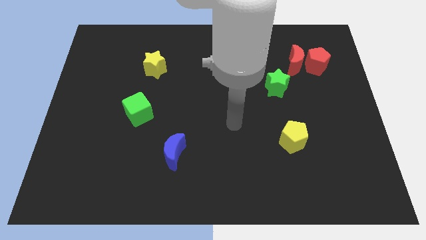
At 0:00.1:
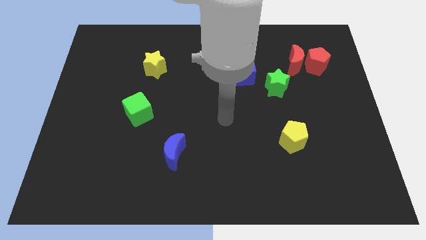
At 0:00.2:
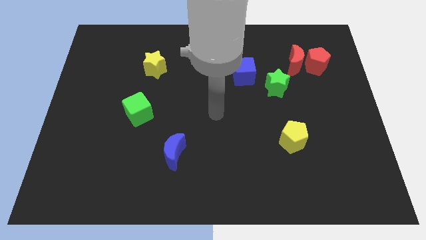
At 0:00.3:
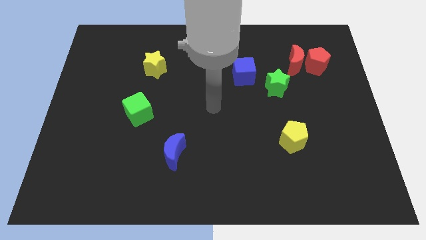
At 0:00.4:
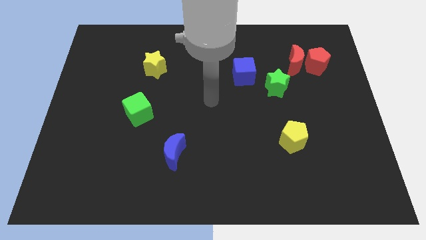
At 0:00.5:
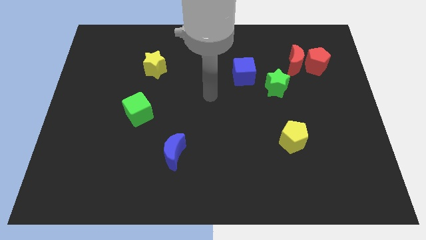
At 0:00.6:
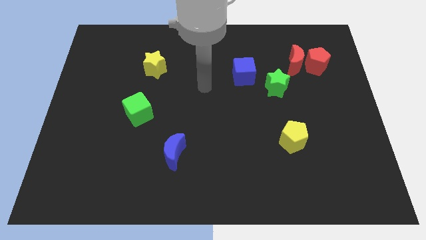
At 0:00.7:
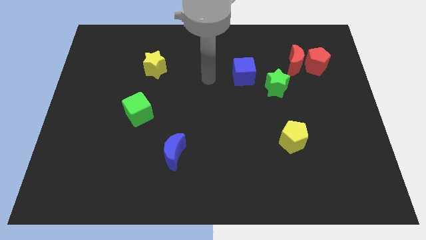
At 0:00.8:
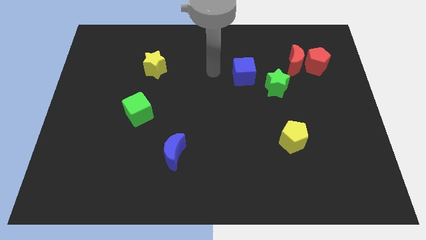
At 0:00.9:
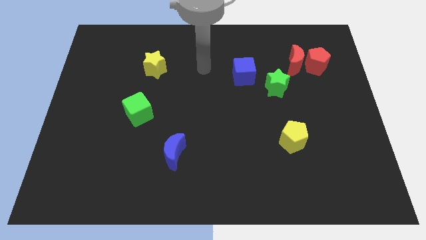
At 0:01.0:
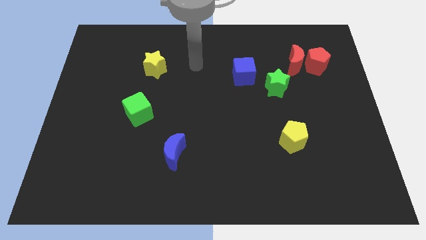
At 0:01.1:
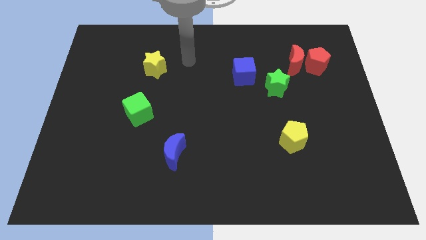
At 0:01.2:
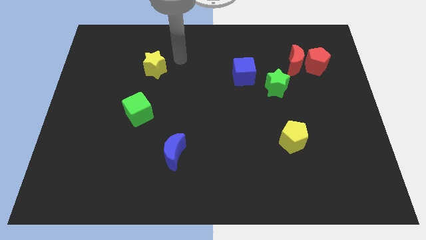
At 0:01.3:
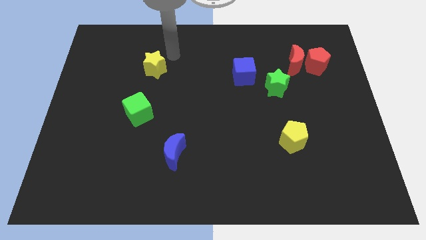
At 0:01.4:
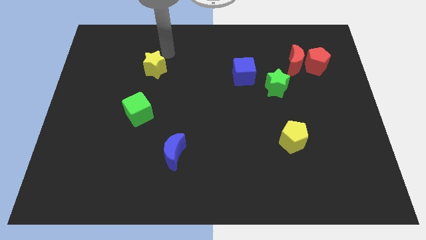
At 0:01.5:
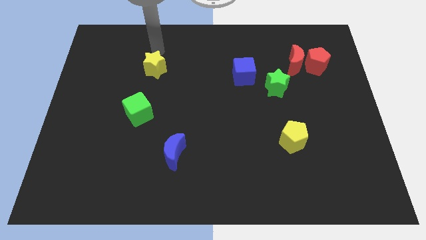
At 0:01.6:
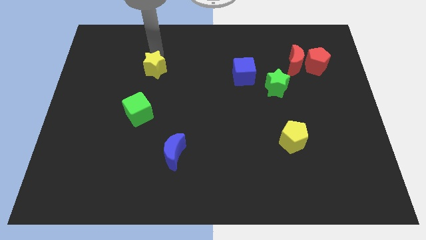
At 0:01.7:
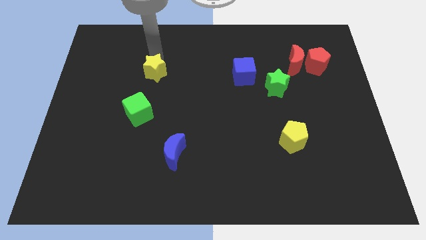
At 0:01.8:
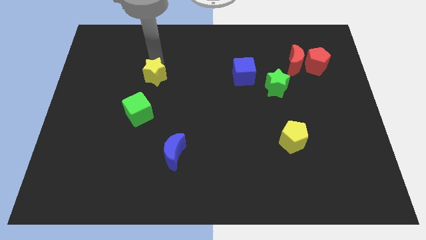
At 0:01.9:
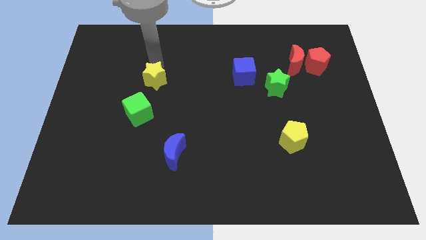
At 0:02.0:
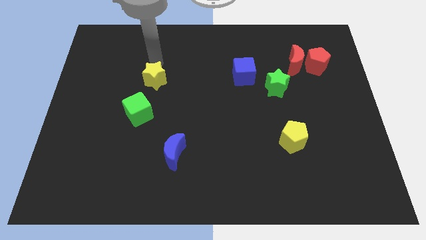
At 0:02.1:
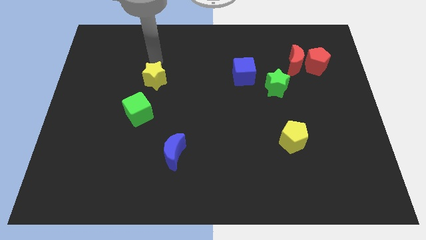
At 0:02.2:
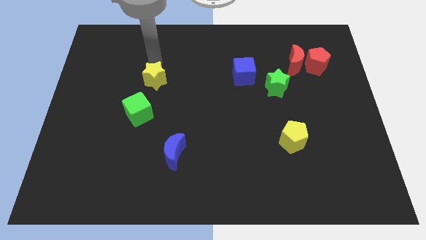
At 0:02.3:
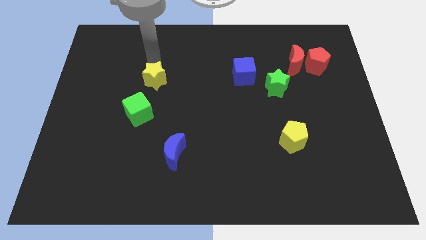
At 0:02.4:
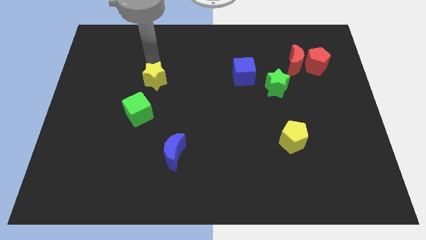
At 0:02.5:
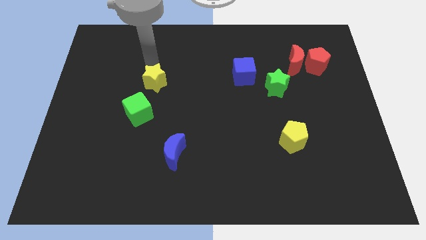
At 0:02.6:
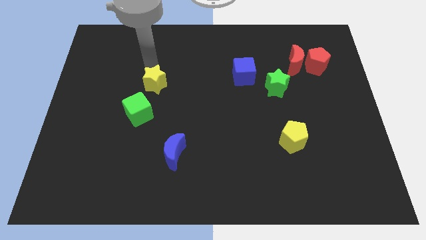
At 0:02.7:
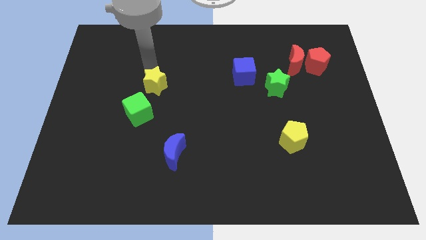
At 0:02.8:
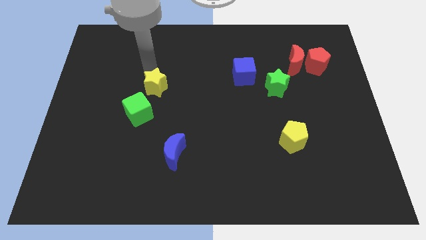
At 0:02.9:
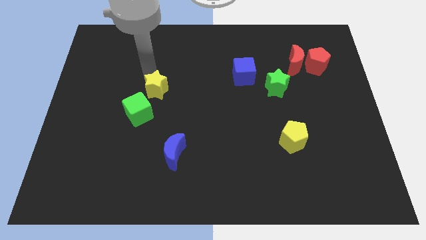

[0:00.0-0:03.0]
slide the yellow star downwards somewhat

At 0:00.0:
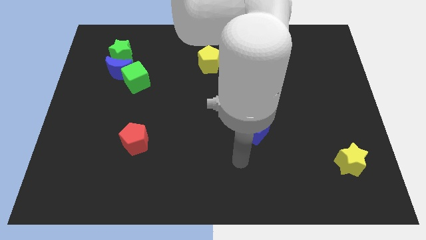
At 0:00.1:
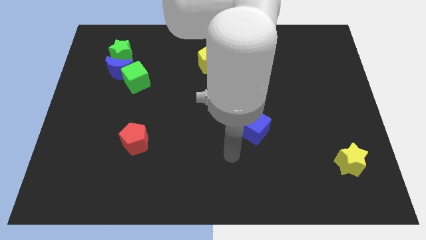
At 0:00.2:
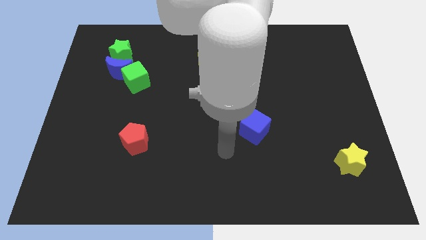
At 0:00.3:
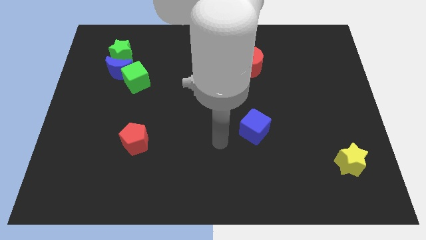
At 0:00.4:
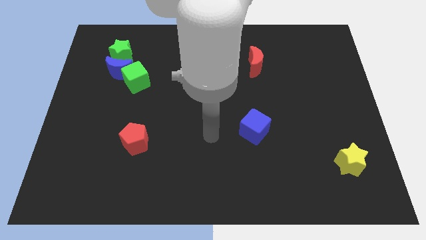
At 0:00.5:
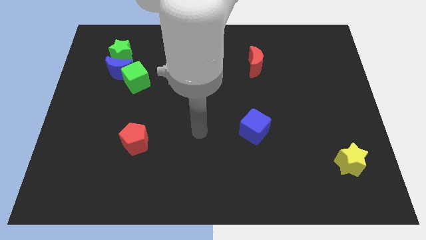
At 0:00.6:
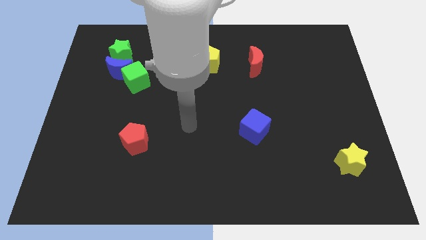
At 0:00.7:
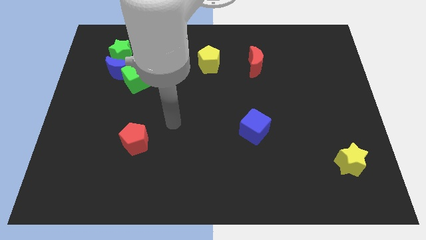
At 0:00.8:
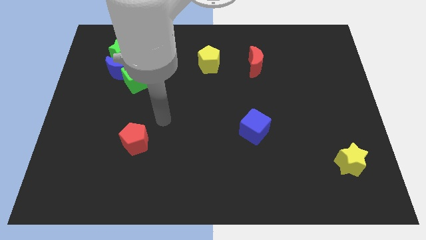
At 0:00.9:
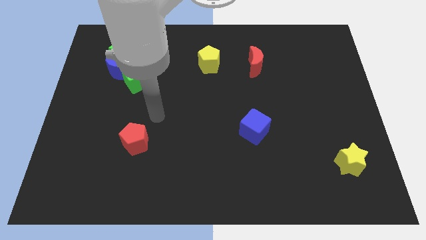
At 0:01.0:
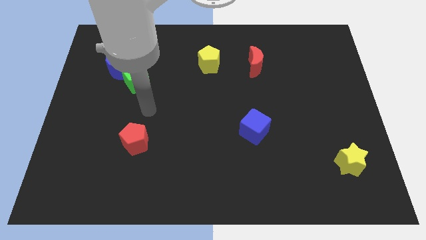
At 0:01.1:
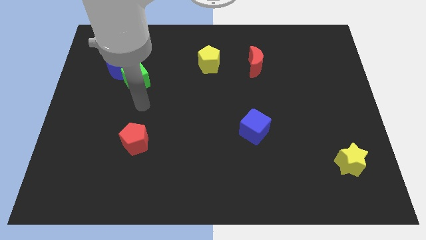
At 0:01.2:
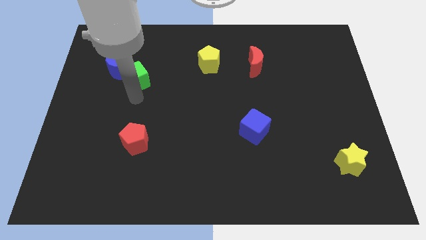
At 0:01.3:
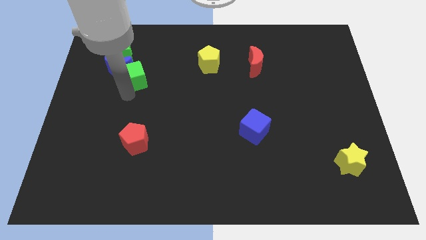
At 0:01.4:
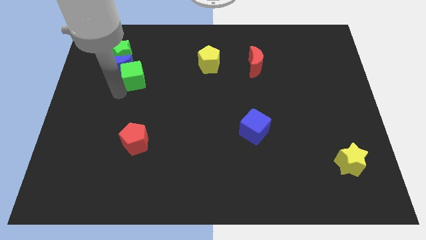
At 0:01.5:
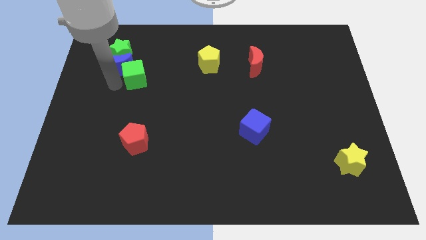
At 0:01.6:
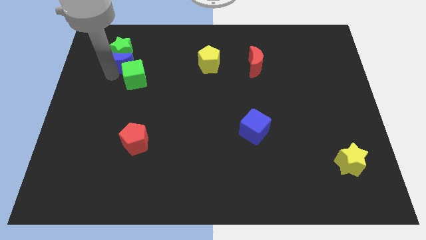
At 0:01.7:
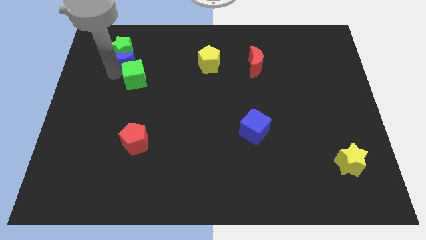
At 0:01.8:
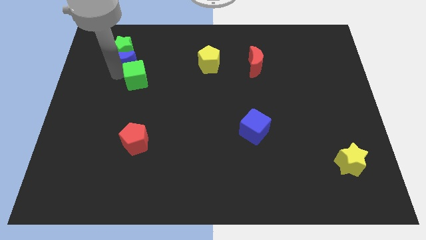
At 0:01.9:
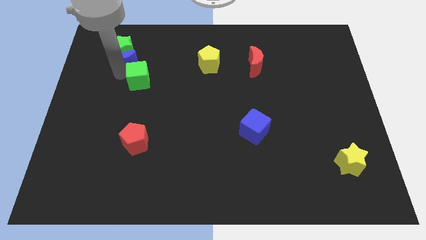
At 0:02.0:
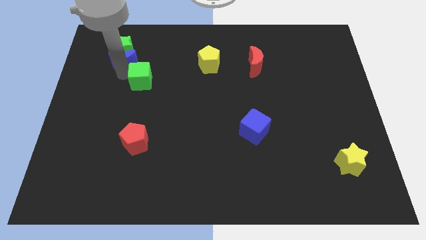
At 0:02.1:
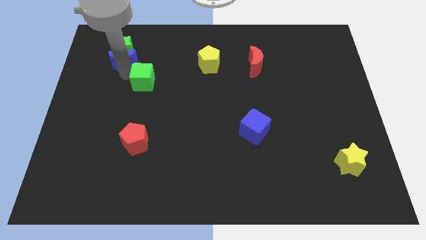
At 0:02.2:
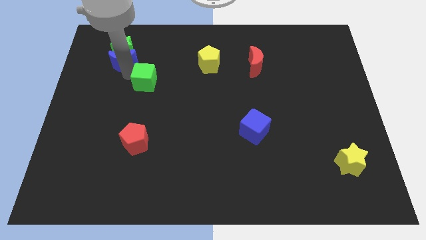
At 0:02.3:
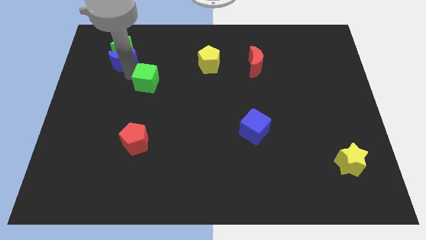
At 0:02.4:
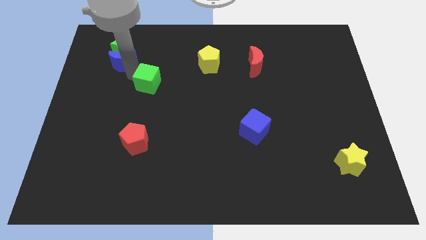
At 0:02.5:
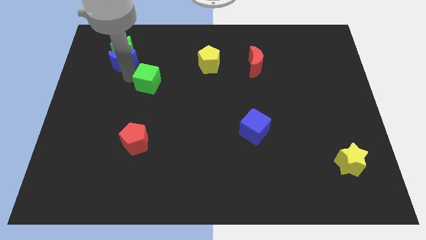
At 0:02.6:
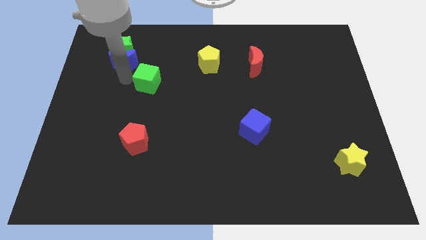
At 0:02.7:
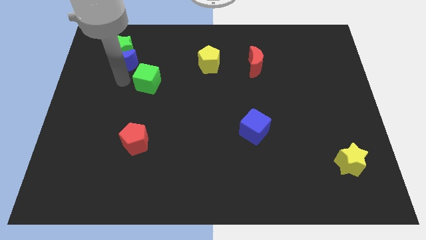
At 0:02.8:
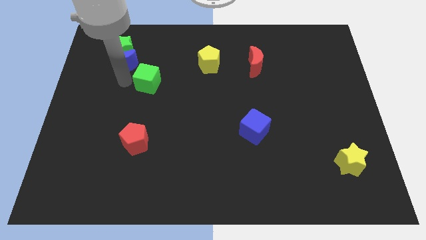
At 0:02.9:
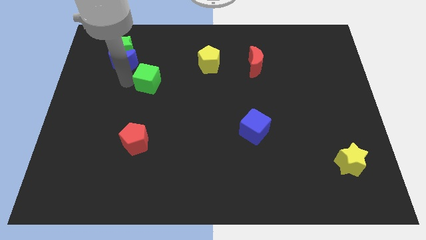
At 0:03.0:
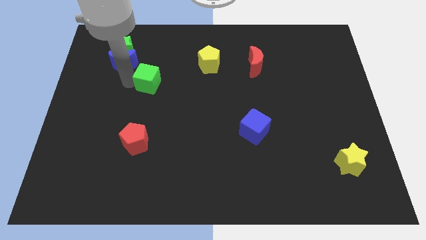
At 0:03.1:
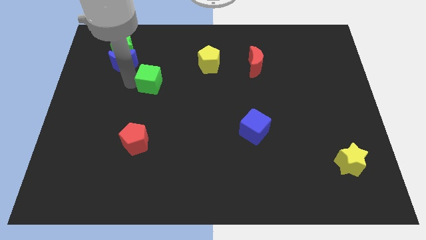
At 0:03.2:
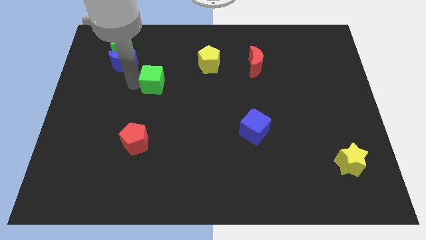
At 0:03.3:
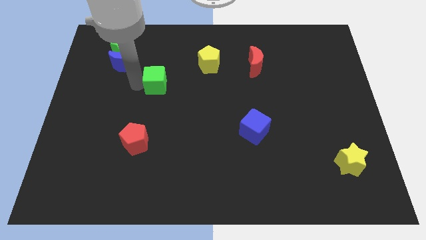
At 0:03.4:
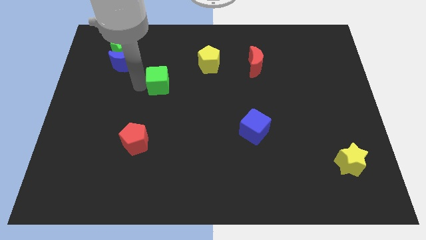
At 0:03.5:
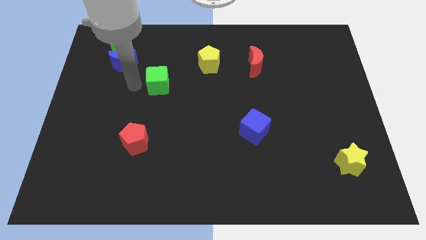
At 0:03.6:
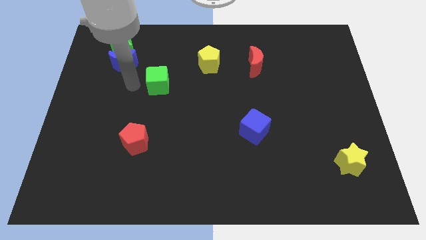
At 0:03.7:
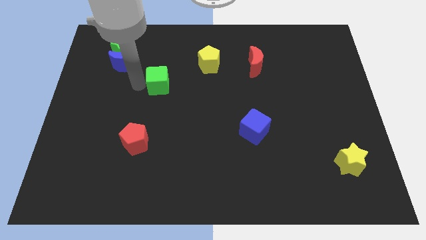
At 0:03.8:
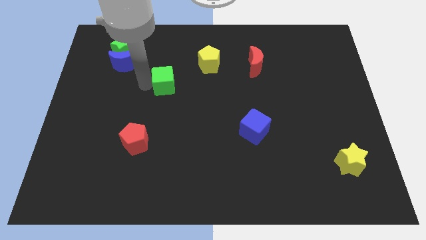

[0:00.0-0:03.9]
slide the green cube to the right slightly

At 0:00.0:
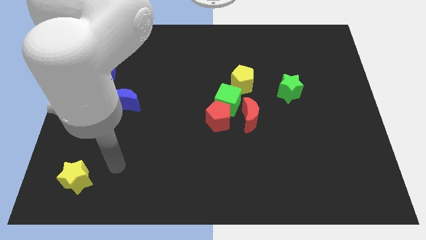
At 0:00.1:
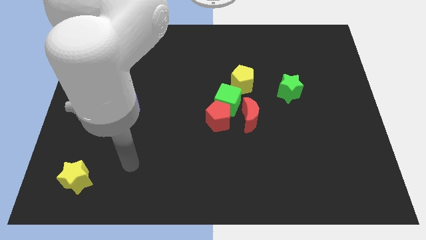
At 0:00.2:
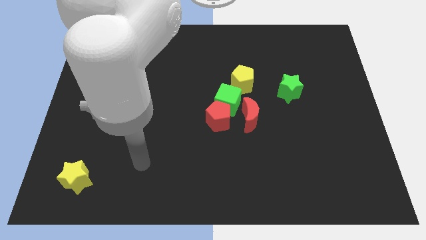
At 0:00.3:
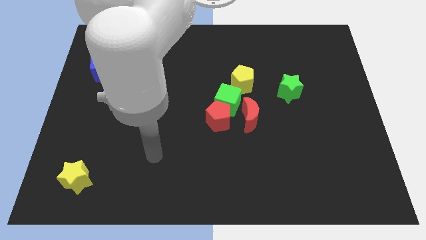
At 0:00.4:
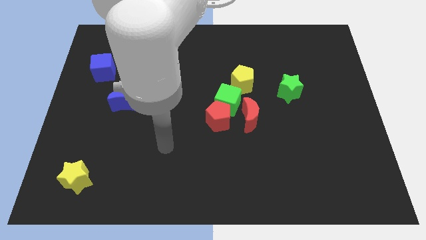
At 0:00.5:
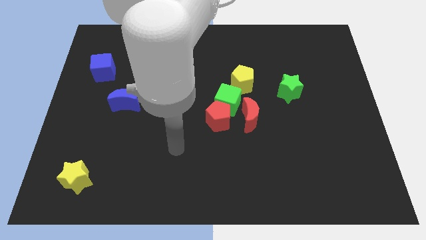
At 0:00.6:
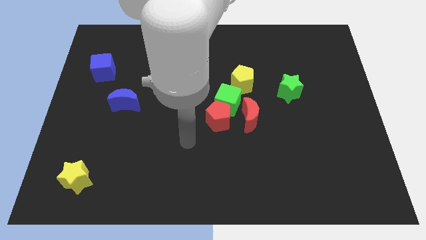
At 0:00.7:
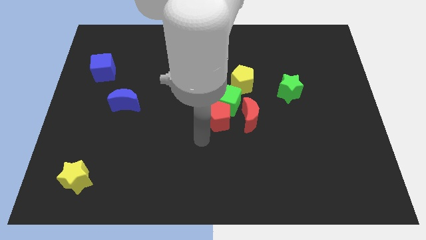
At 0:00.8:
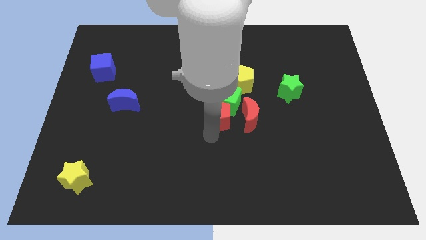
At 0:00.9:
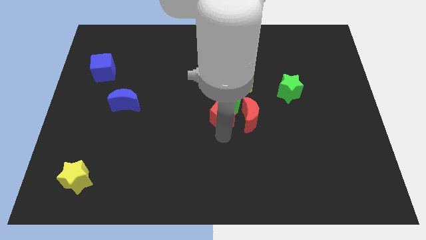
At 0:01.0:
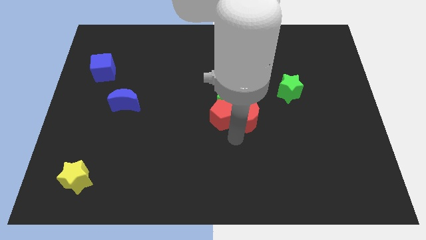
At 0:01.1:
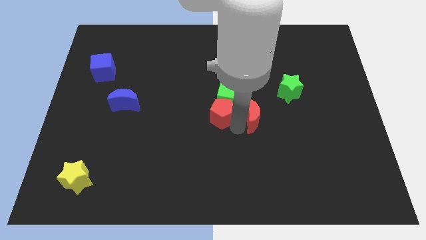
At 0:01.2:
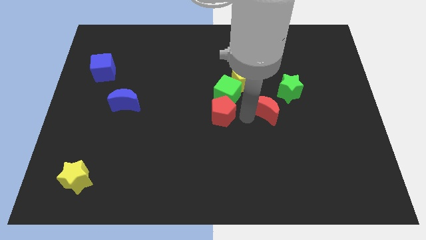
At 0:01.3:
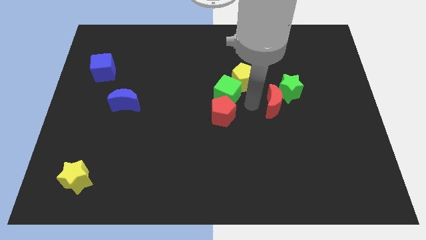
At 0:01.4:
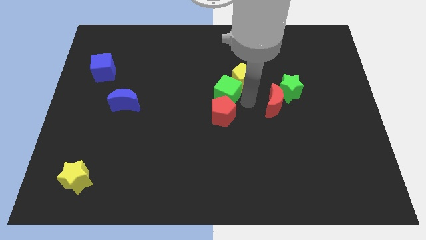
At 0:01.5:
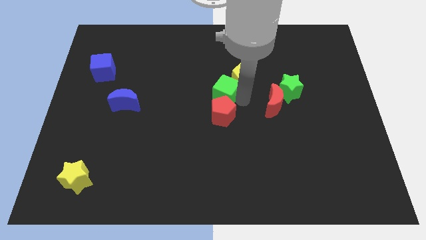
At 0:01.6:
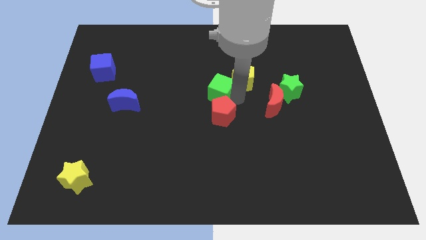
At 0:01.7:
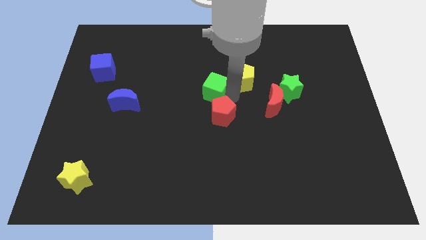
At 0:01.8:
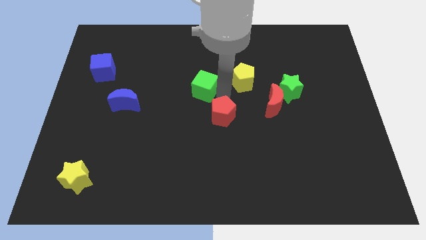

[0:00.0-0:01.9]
move the green cube a bit upwards and left
